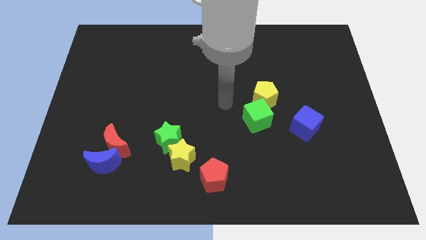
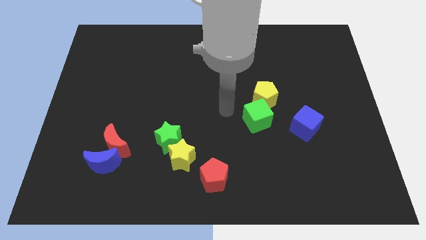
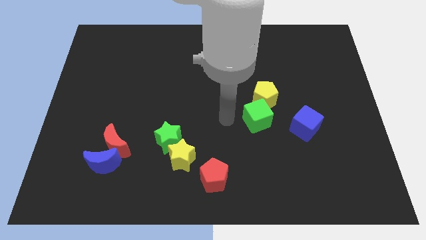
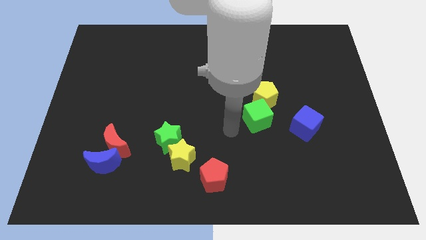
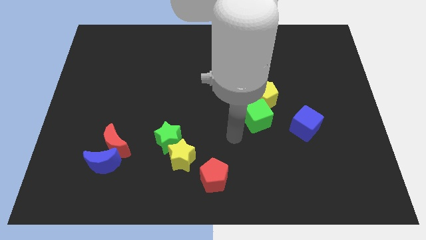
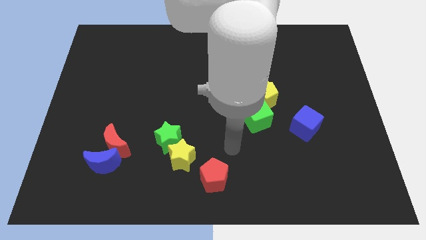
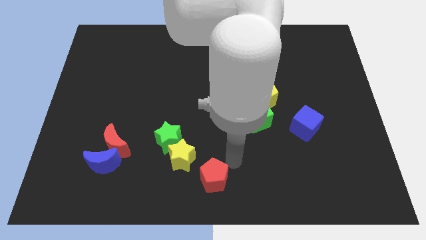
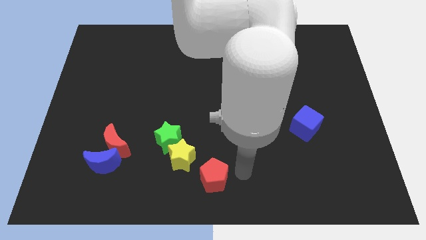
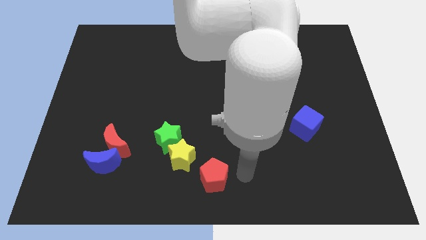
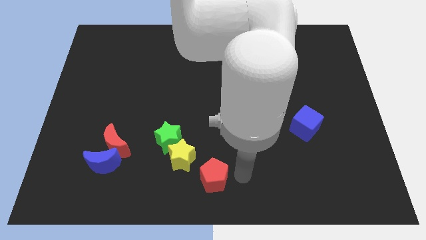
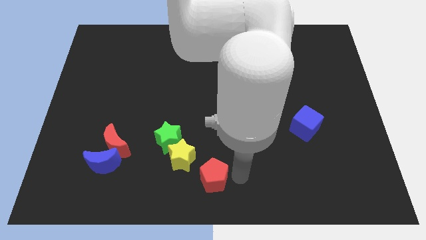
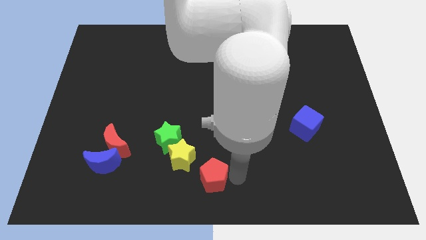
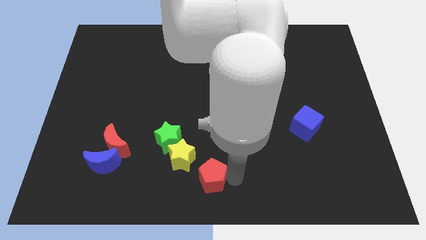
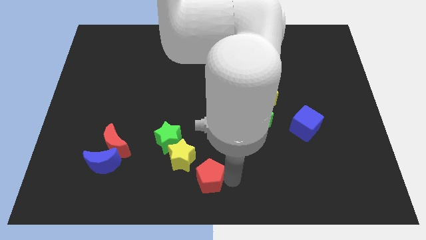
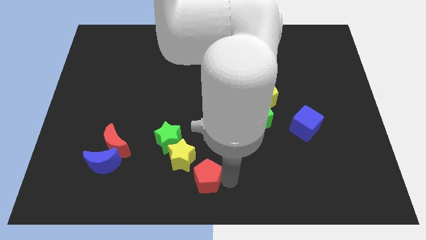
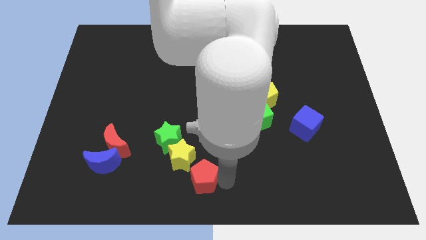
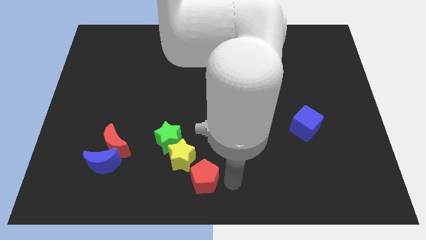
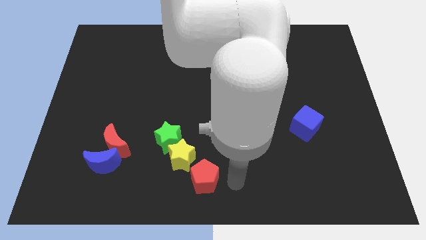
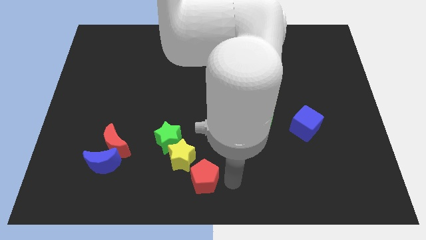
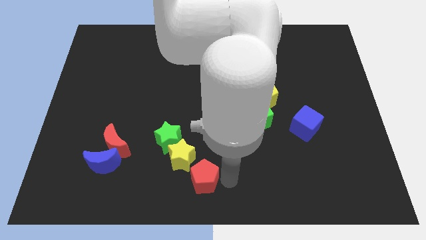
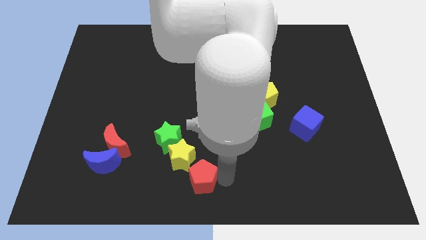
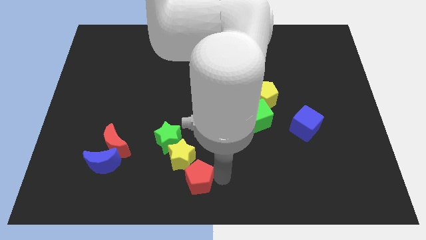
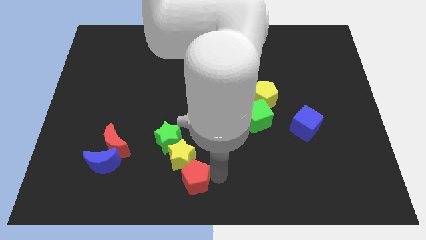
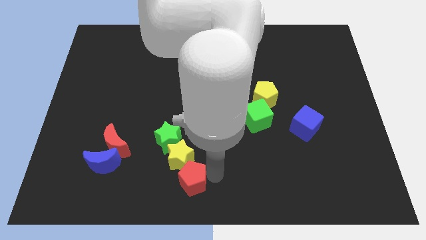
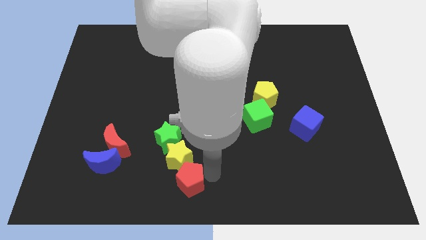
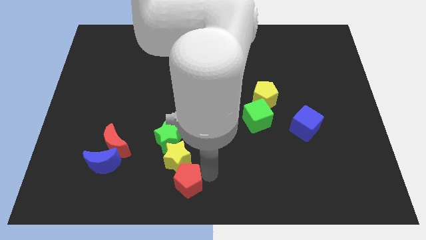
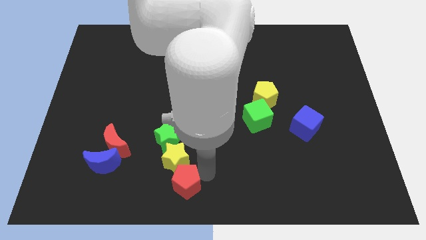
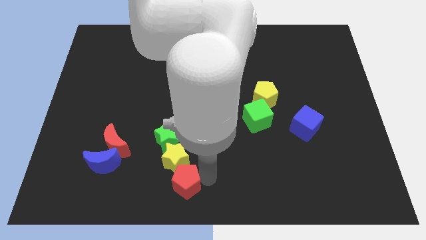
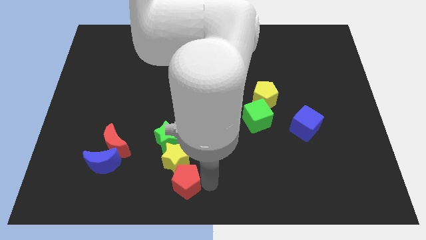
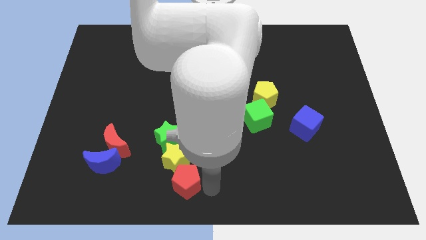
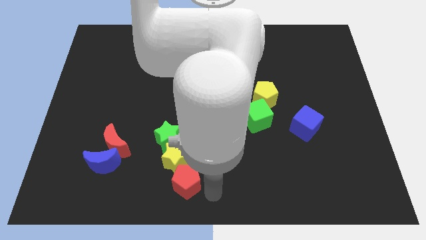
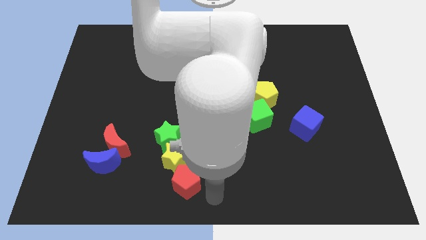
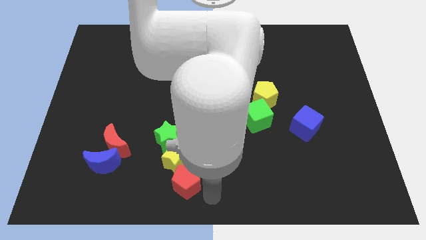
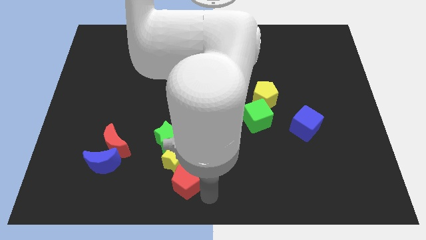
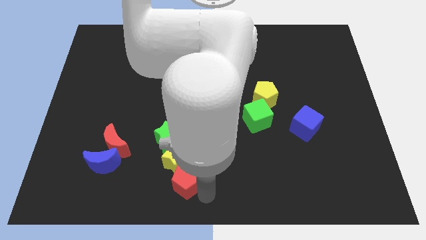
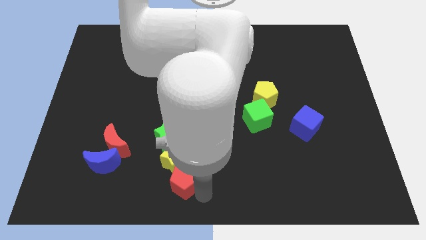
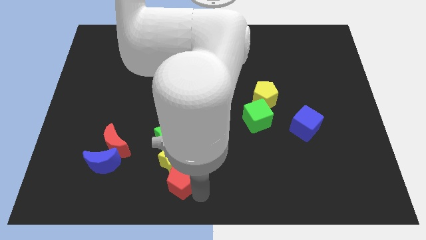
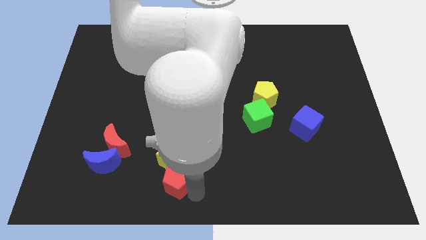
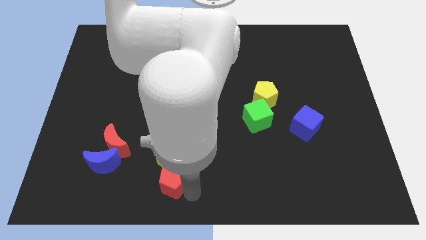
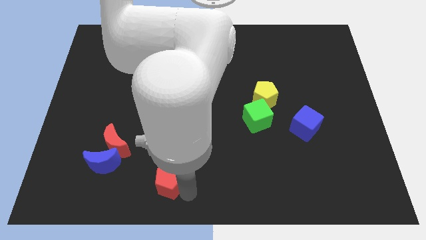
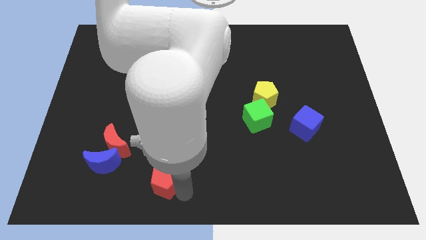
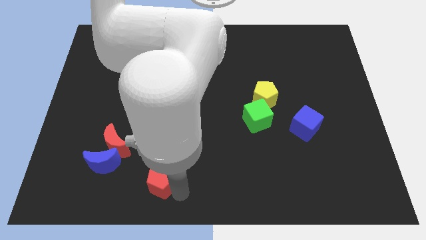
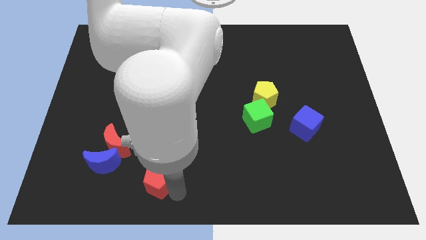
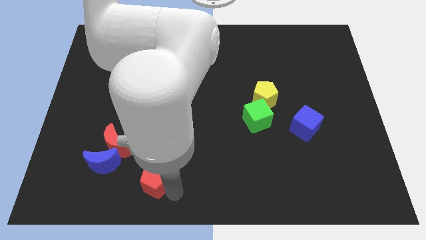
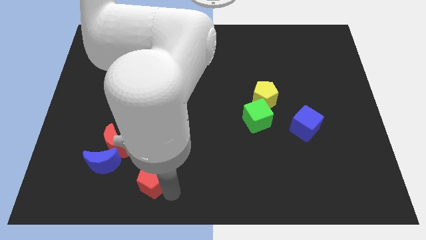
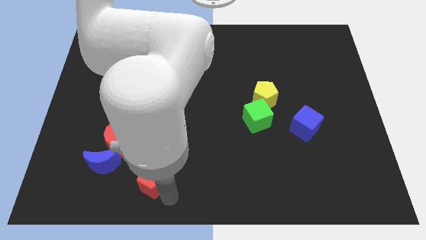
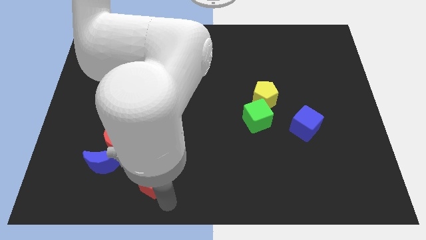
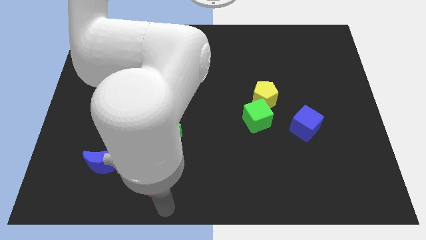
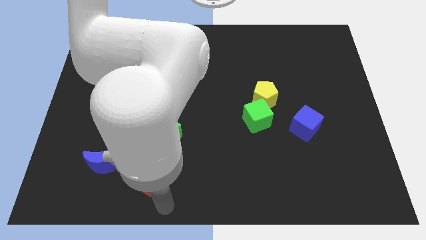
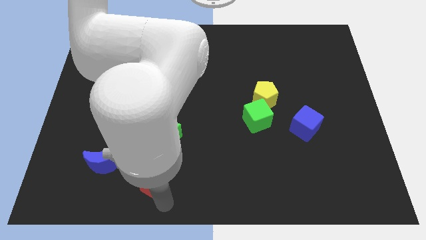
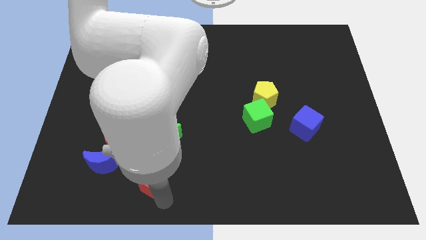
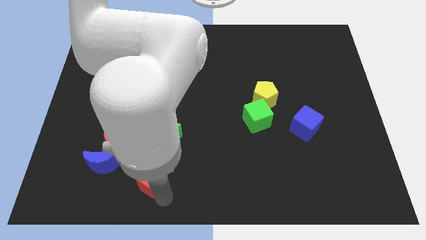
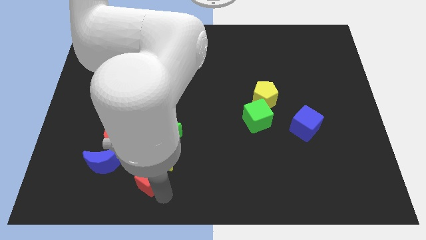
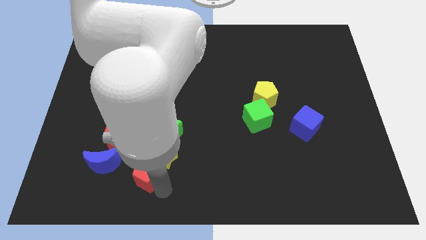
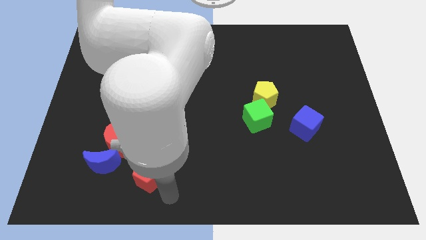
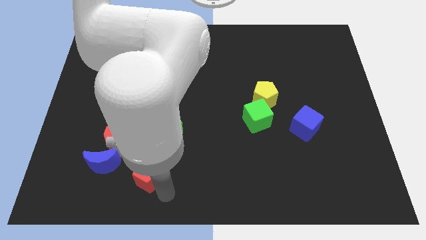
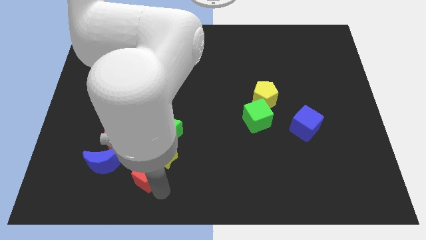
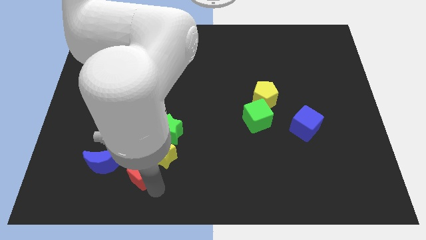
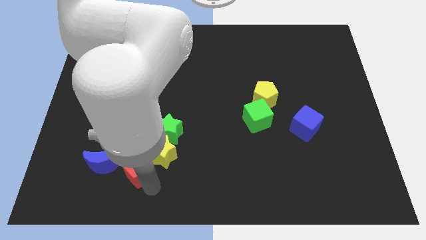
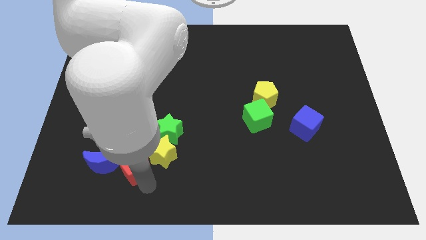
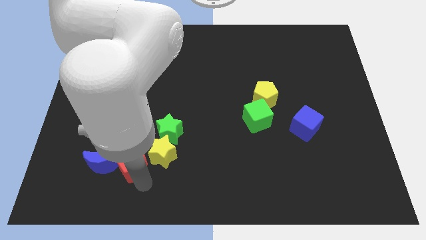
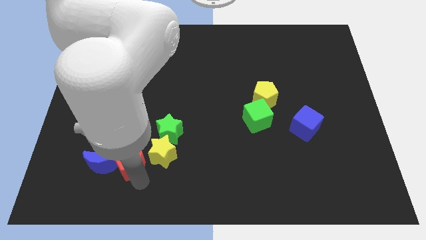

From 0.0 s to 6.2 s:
slide the red pentagon close to the red moon

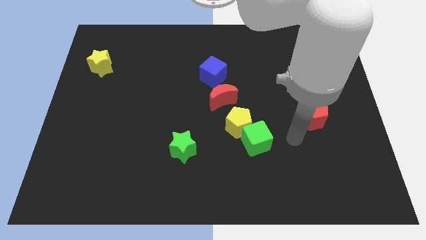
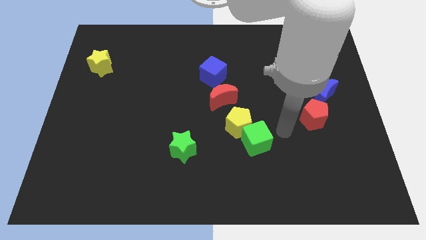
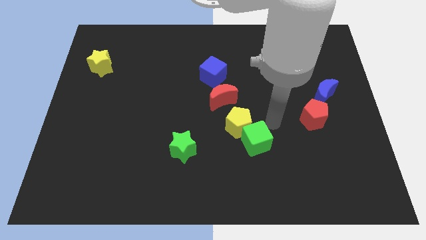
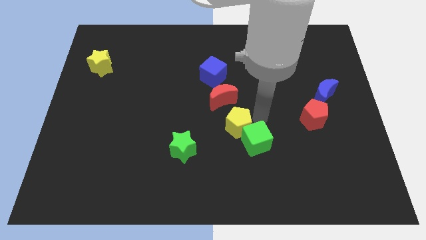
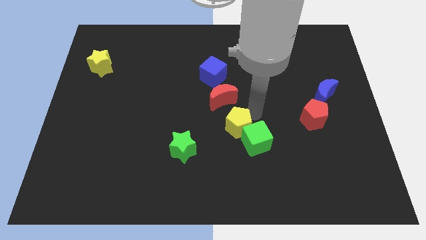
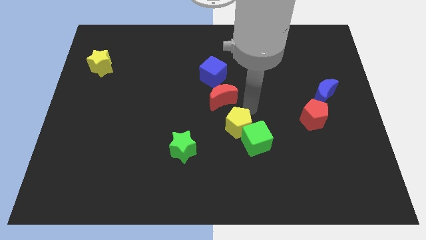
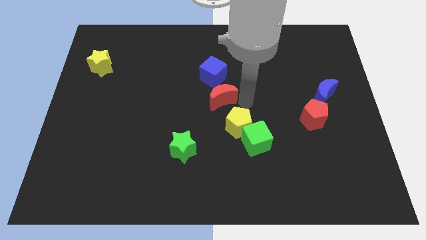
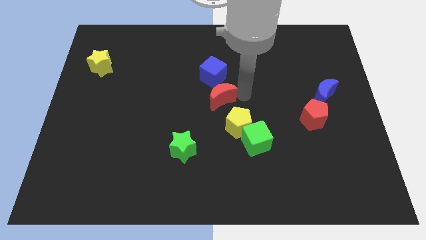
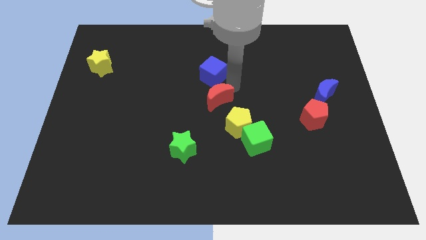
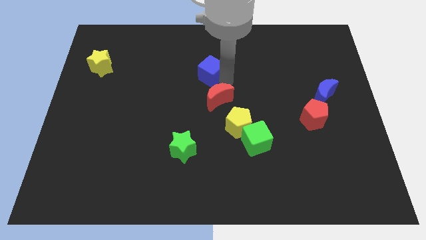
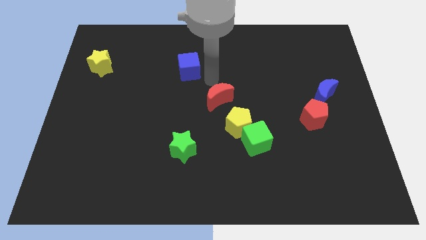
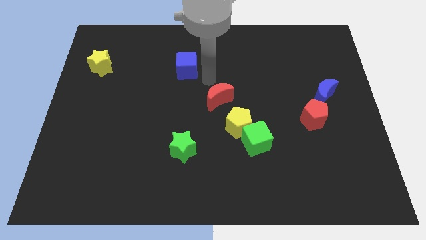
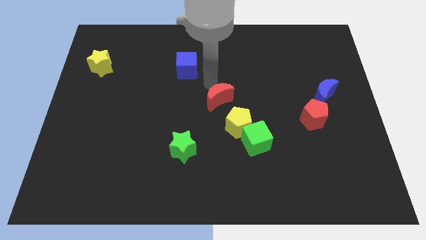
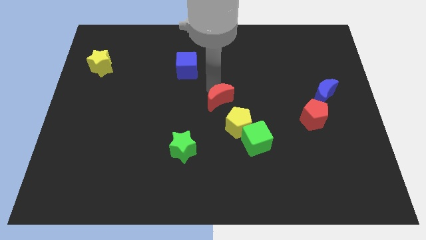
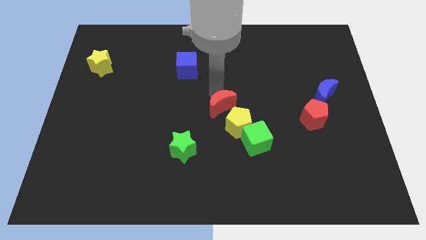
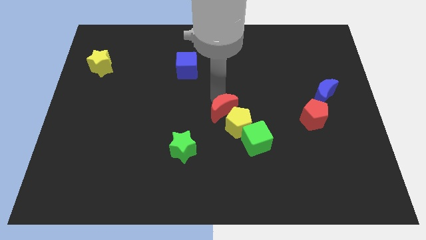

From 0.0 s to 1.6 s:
put the red moon towards the yellow pentagon
